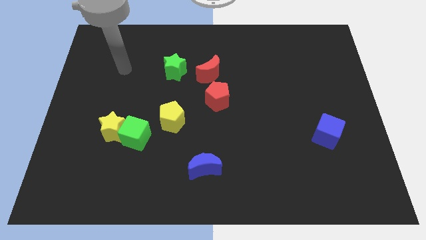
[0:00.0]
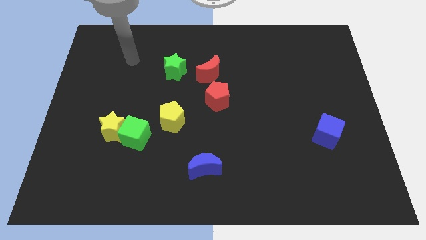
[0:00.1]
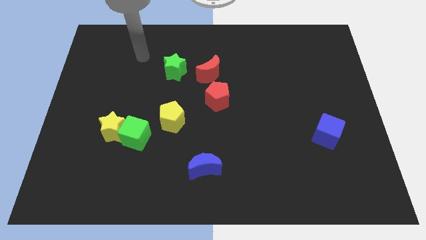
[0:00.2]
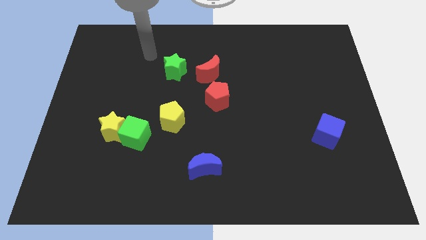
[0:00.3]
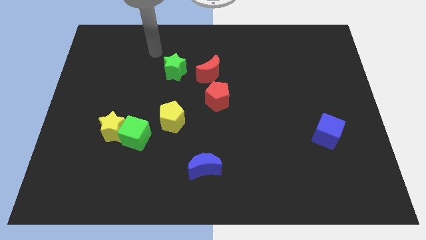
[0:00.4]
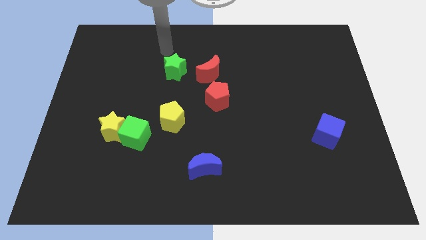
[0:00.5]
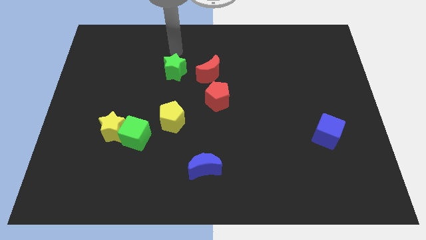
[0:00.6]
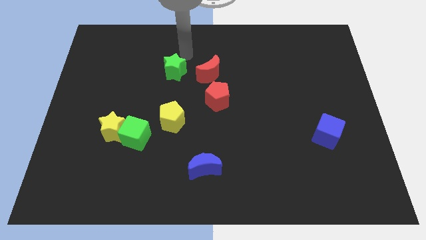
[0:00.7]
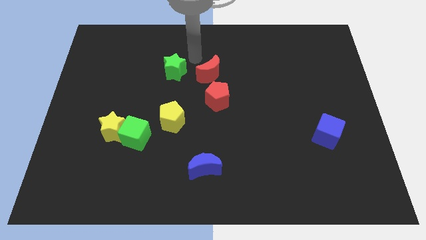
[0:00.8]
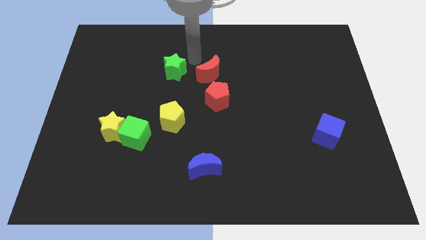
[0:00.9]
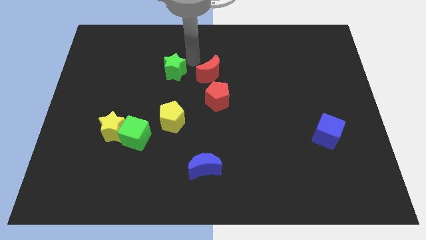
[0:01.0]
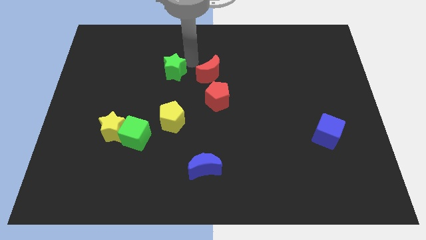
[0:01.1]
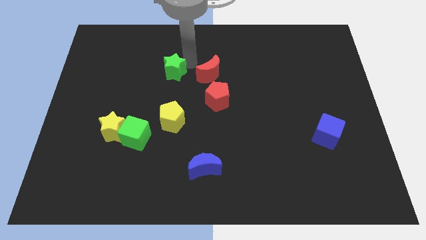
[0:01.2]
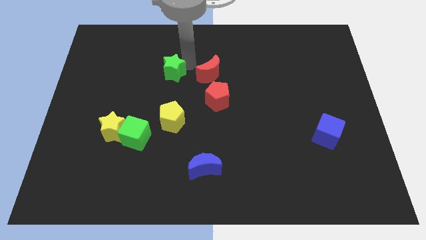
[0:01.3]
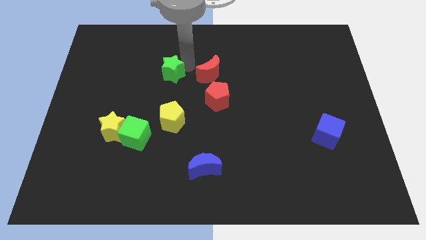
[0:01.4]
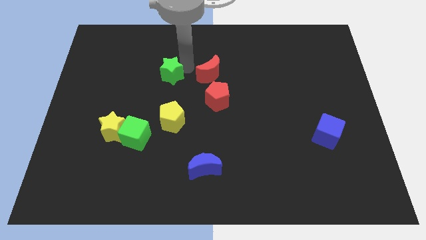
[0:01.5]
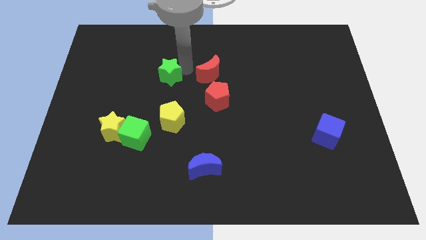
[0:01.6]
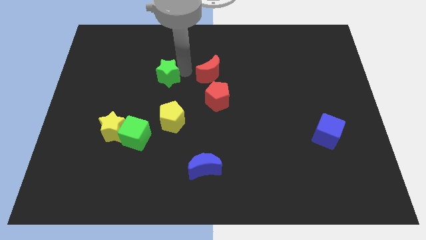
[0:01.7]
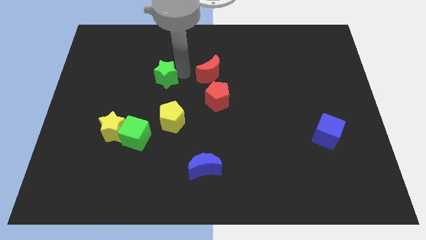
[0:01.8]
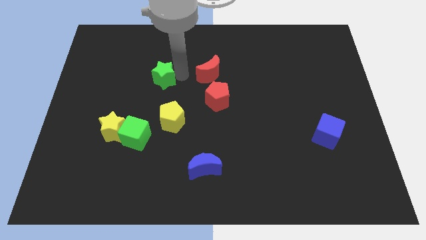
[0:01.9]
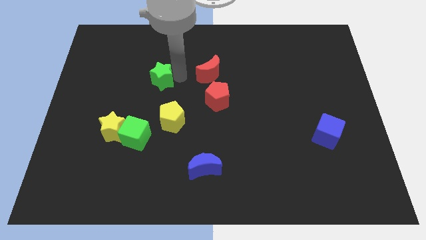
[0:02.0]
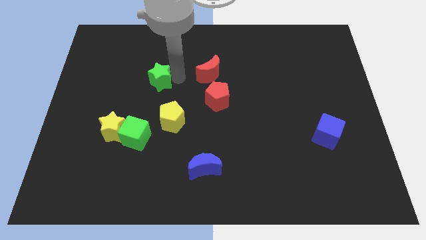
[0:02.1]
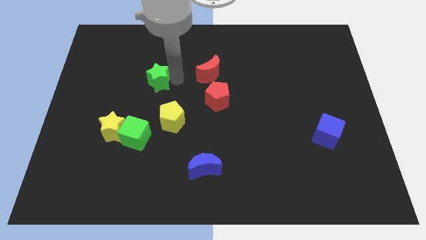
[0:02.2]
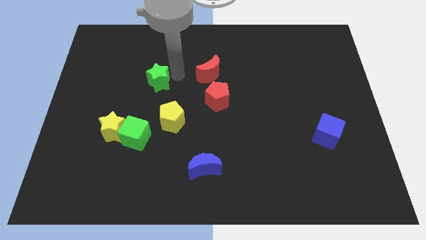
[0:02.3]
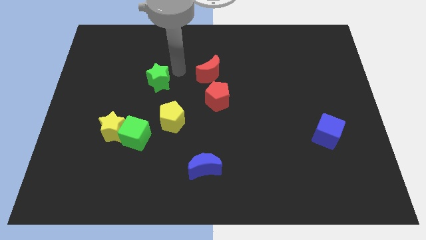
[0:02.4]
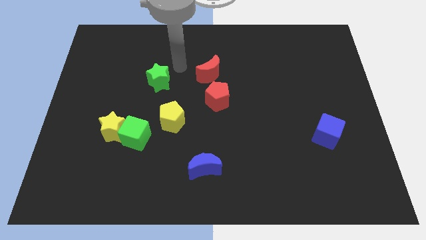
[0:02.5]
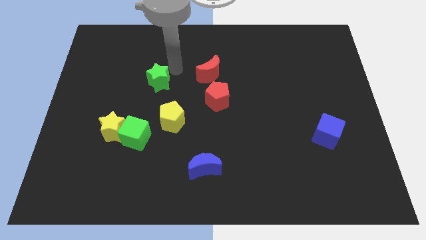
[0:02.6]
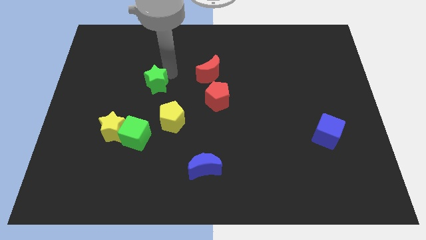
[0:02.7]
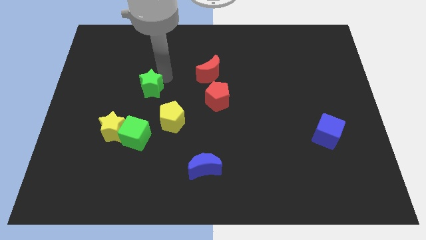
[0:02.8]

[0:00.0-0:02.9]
move the green star a bit down and left diagonally

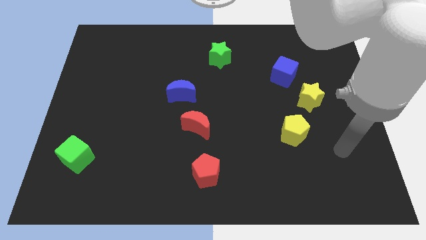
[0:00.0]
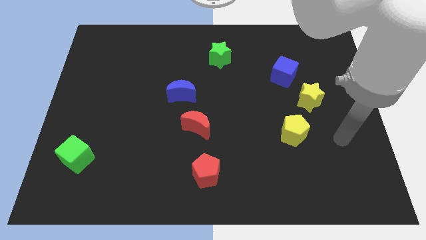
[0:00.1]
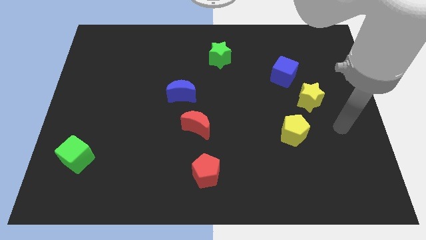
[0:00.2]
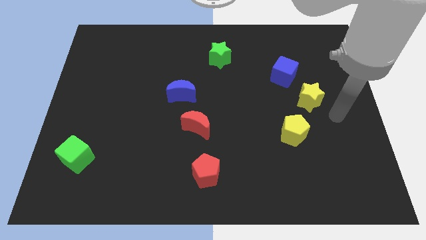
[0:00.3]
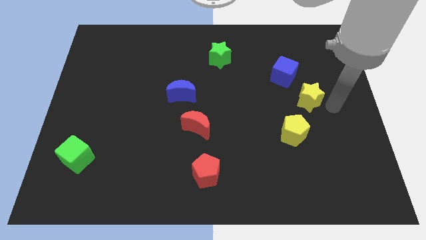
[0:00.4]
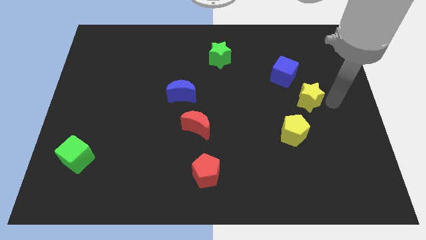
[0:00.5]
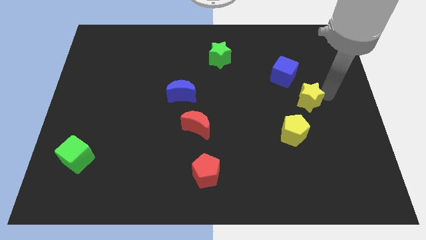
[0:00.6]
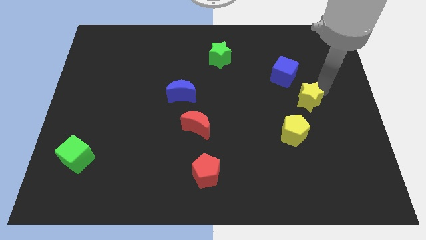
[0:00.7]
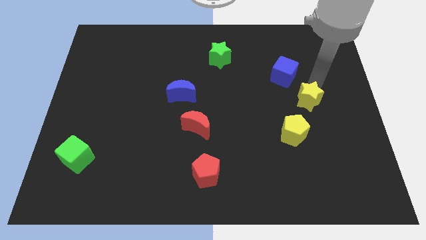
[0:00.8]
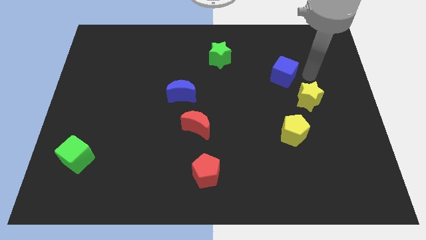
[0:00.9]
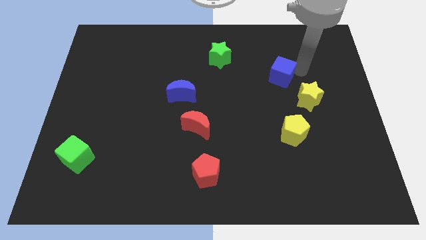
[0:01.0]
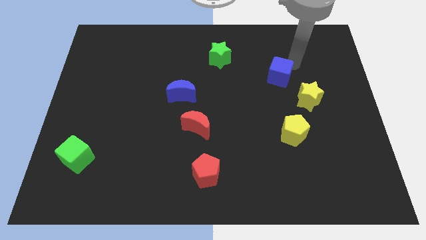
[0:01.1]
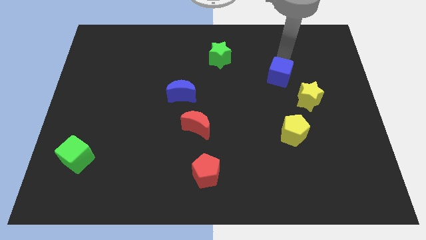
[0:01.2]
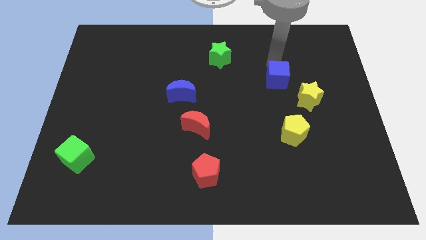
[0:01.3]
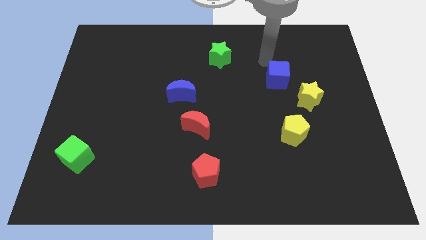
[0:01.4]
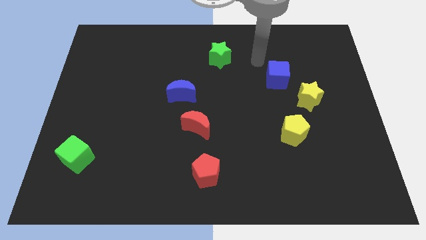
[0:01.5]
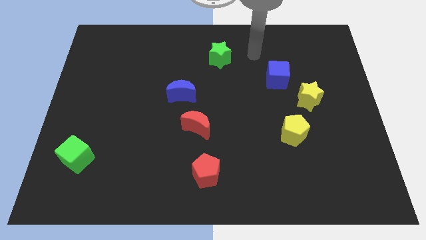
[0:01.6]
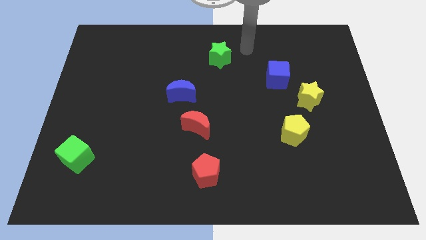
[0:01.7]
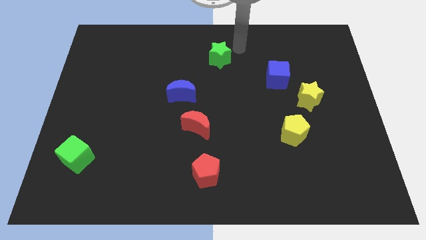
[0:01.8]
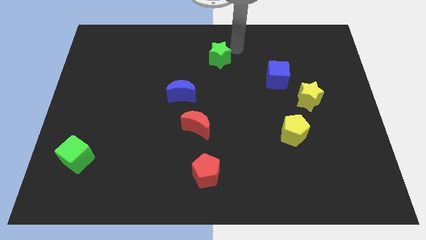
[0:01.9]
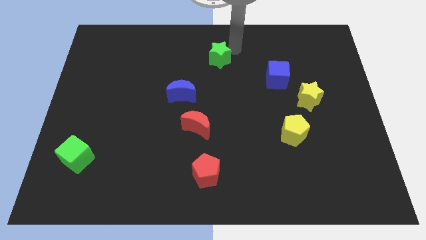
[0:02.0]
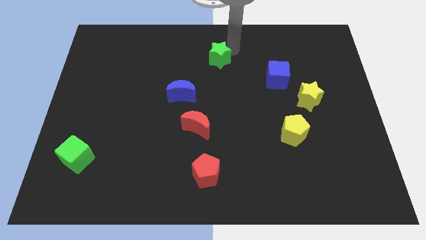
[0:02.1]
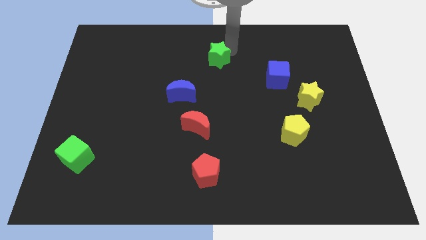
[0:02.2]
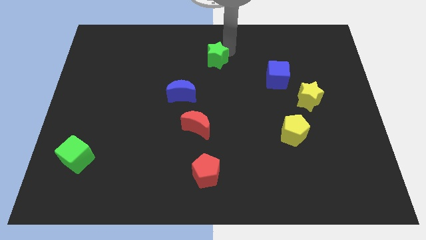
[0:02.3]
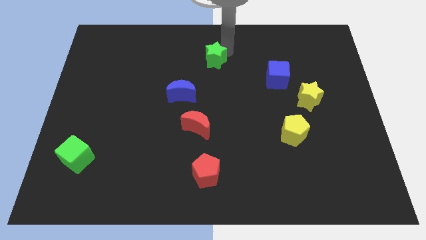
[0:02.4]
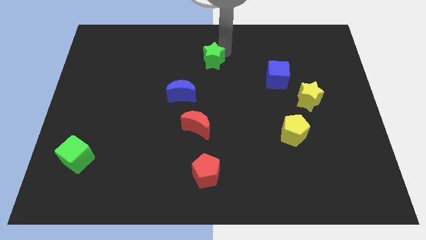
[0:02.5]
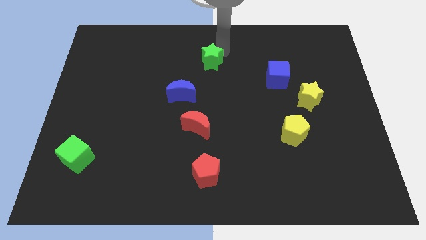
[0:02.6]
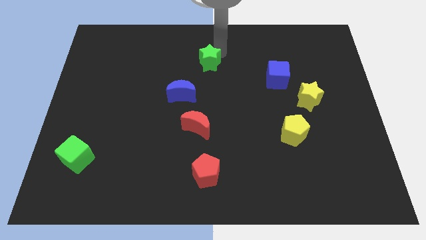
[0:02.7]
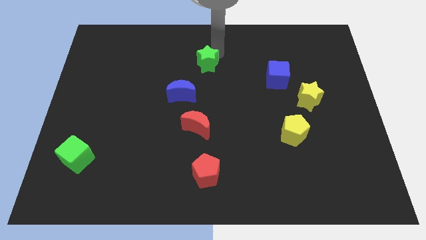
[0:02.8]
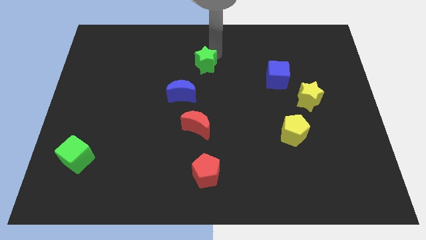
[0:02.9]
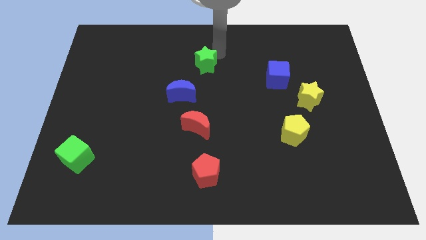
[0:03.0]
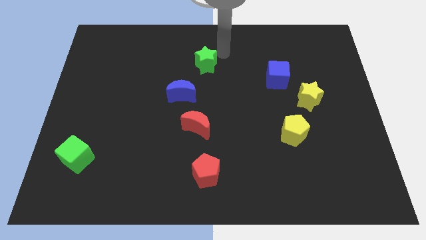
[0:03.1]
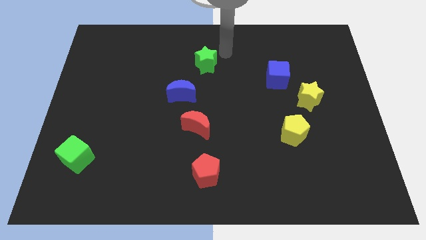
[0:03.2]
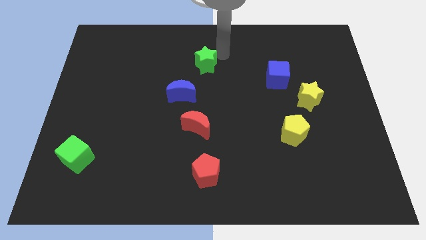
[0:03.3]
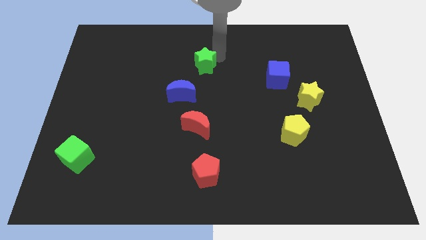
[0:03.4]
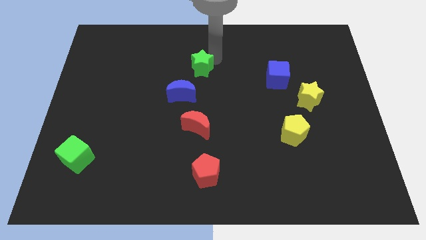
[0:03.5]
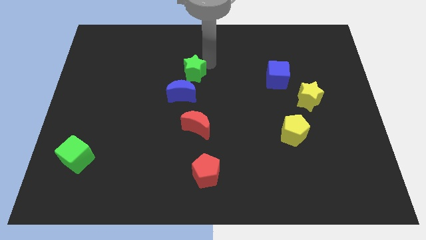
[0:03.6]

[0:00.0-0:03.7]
slightly slide the green star diagonally downwards and to the left

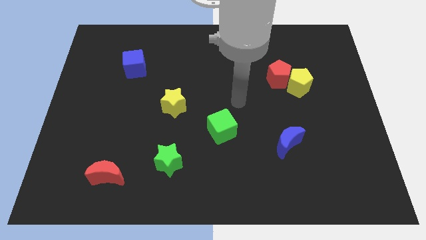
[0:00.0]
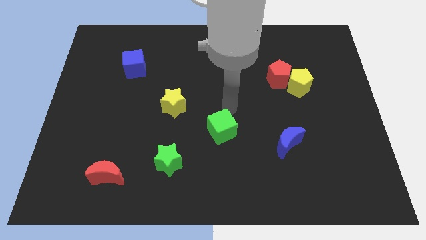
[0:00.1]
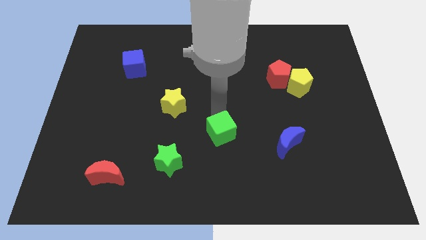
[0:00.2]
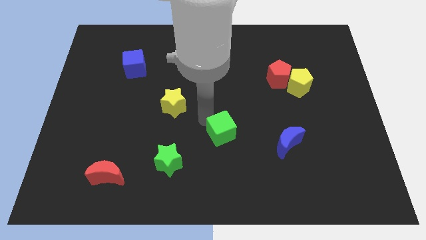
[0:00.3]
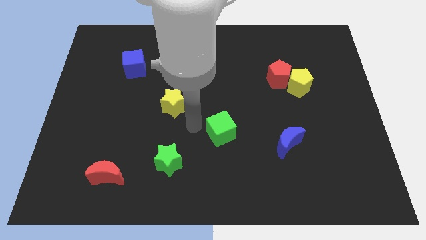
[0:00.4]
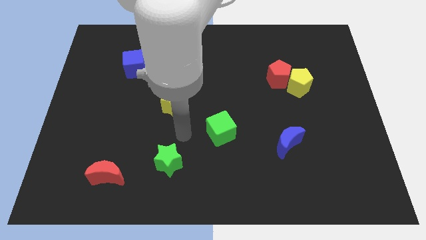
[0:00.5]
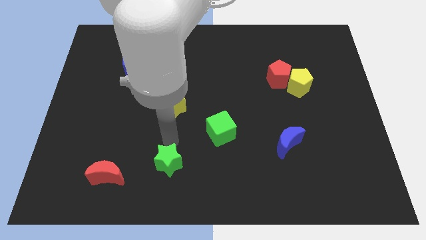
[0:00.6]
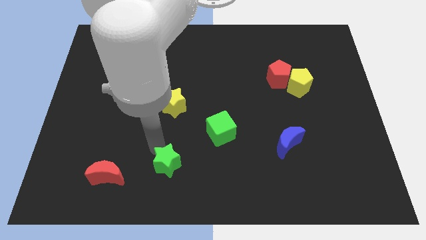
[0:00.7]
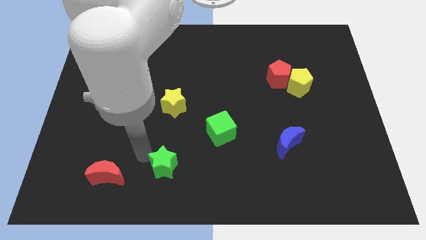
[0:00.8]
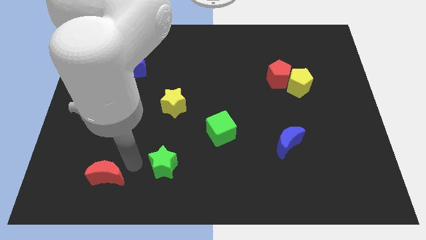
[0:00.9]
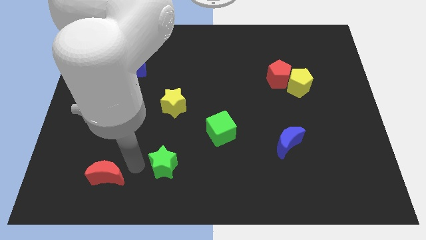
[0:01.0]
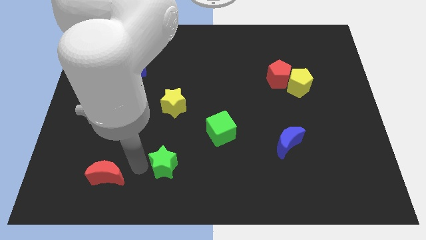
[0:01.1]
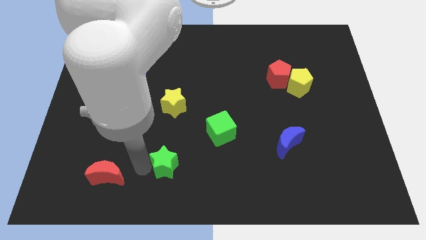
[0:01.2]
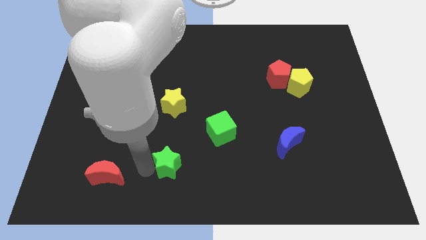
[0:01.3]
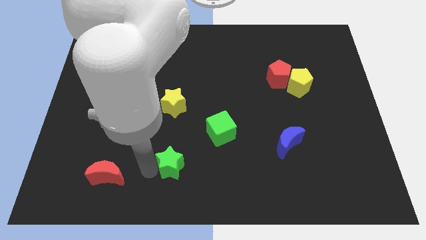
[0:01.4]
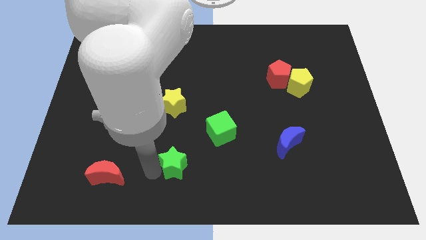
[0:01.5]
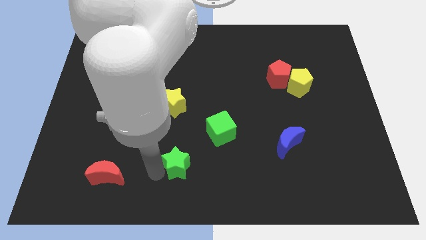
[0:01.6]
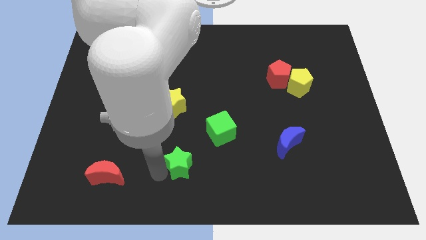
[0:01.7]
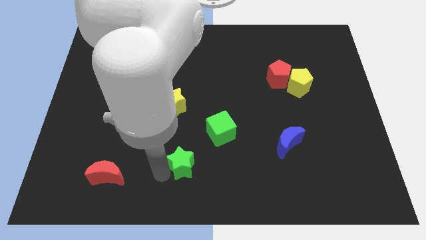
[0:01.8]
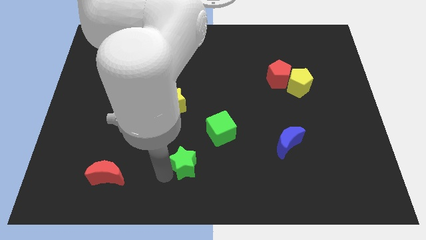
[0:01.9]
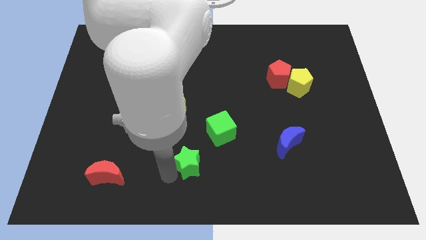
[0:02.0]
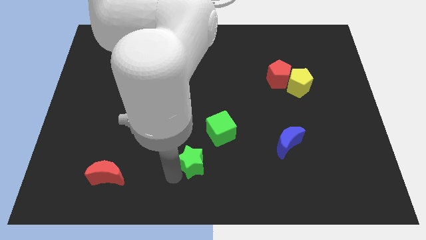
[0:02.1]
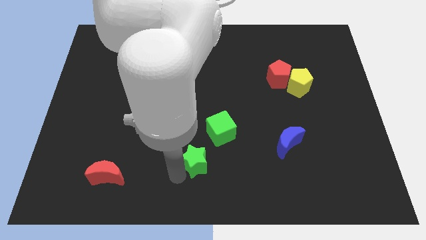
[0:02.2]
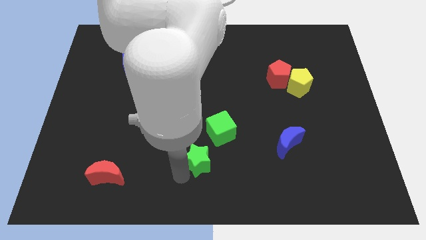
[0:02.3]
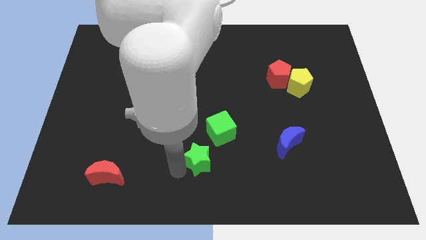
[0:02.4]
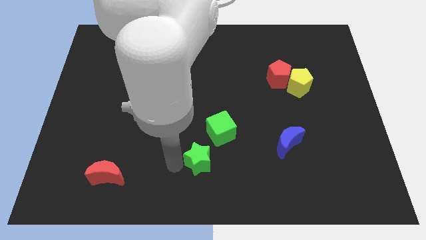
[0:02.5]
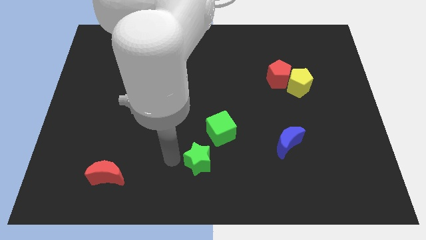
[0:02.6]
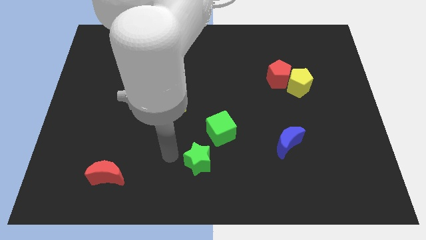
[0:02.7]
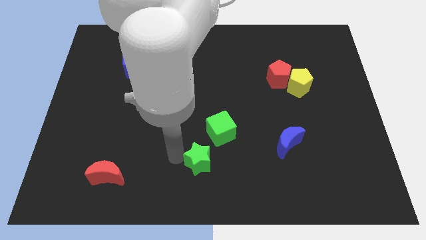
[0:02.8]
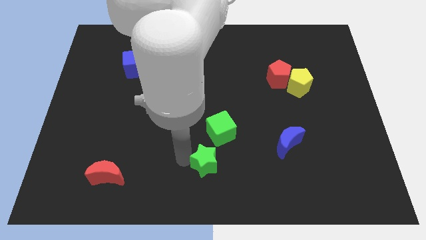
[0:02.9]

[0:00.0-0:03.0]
slightly push the green star to the right
